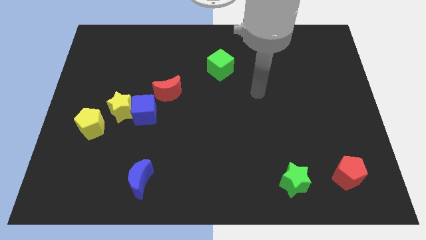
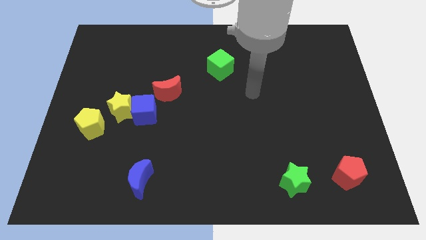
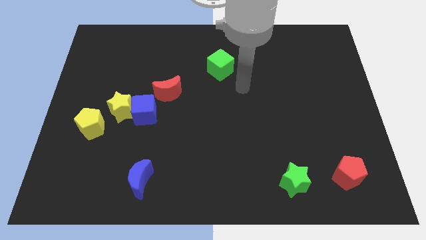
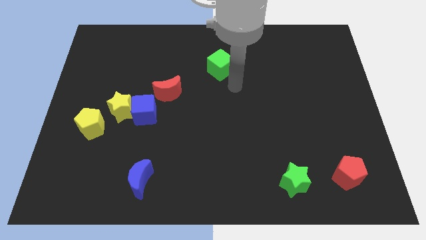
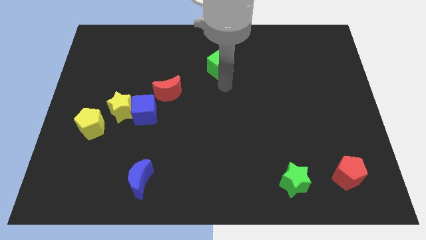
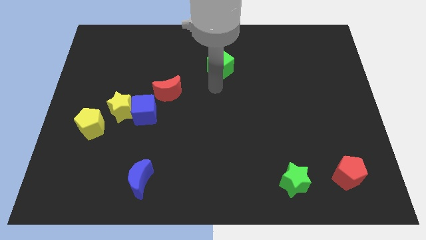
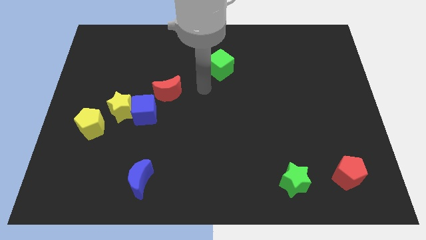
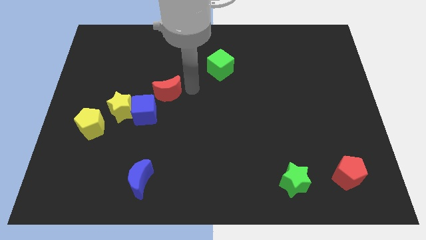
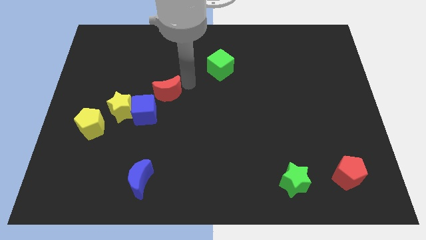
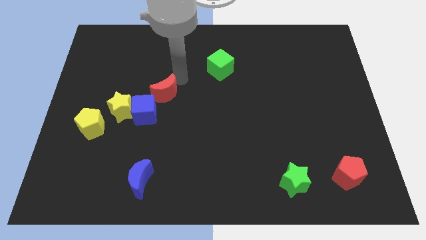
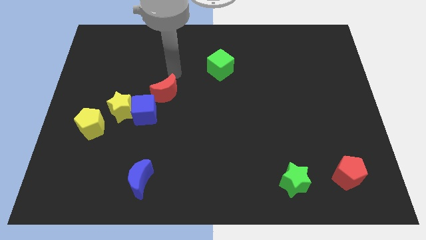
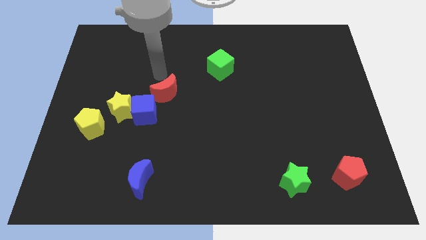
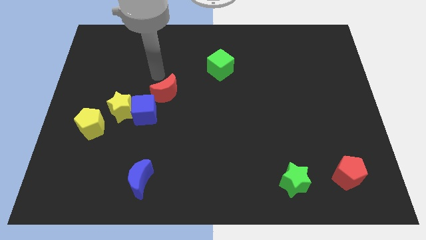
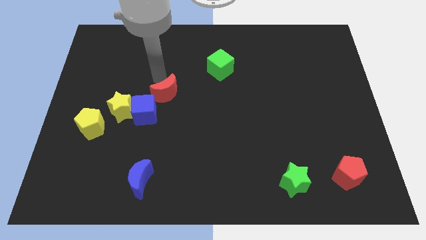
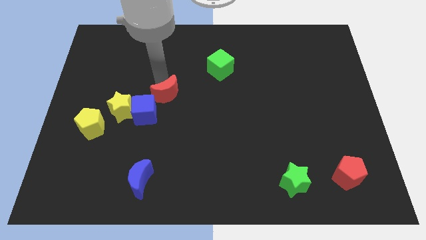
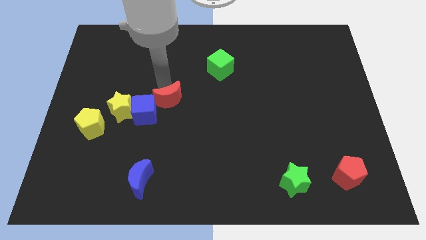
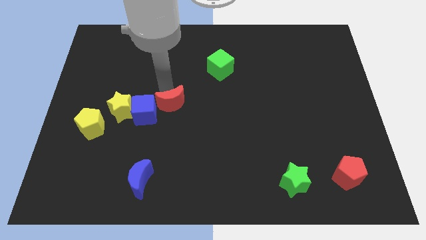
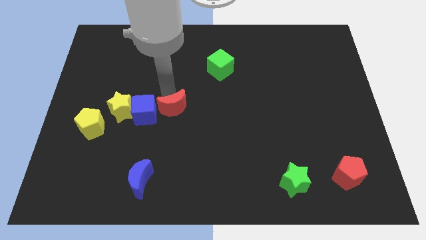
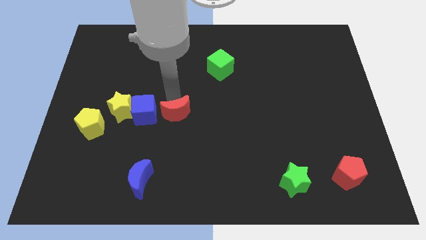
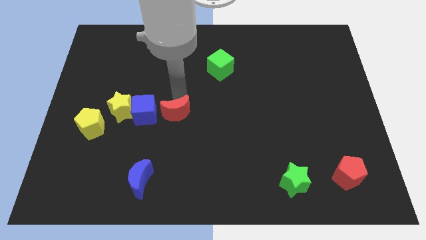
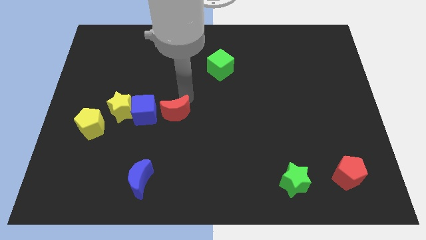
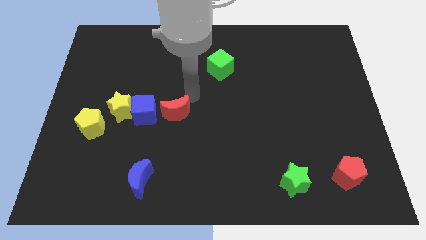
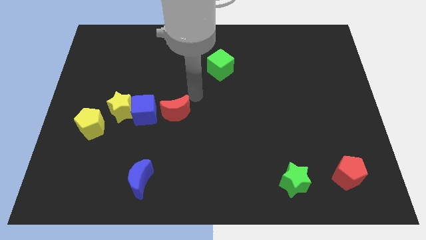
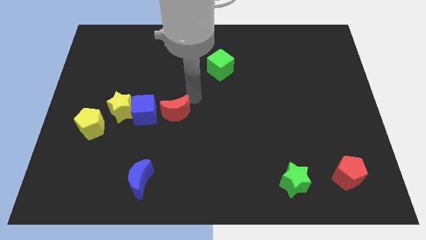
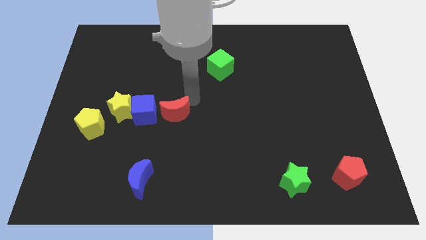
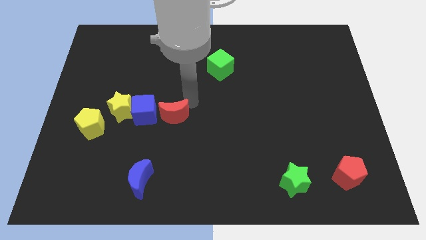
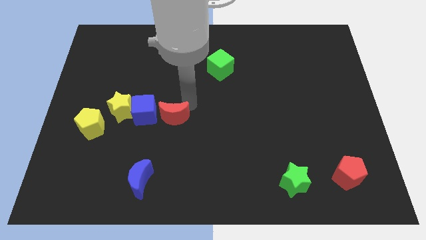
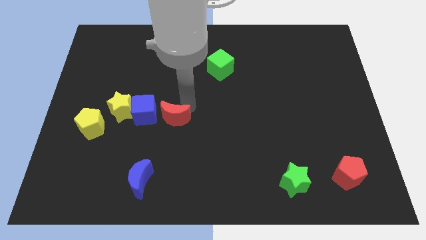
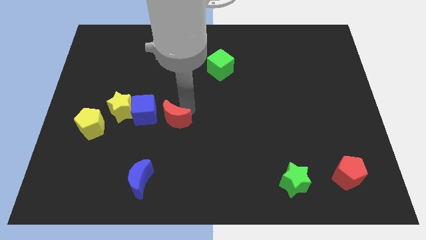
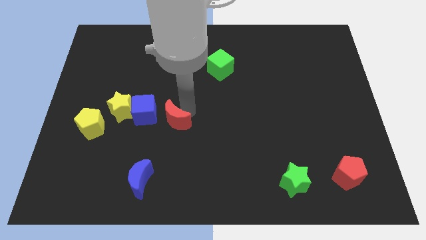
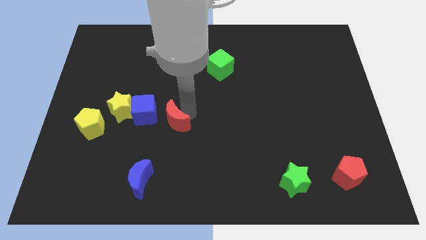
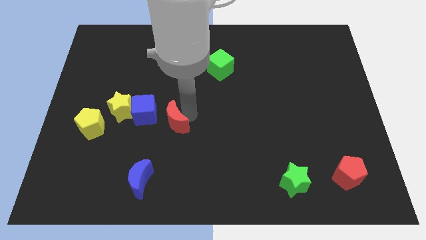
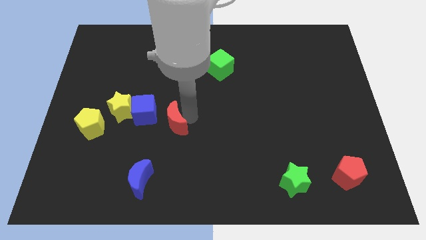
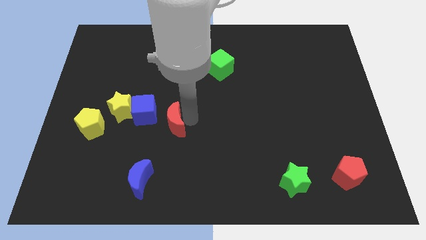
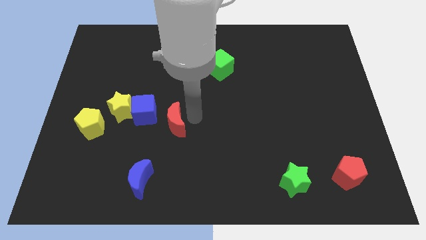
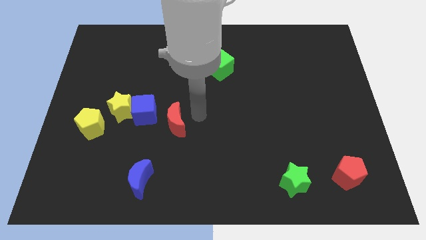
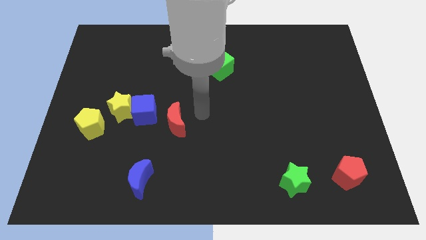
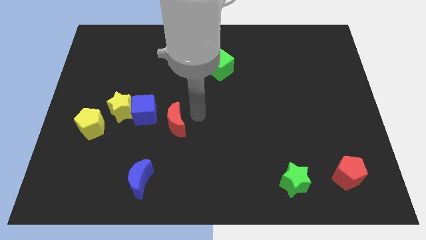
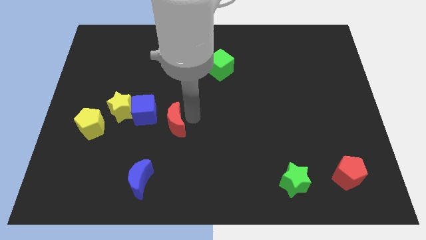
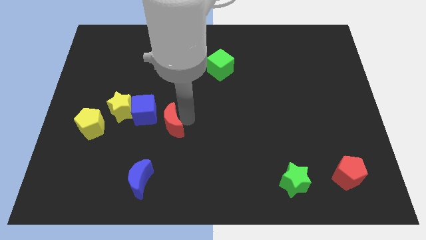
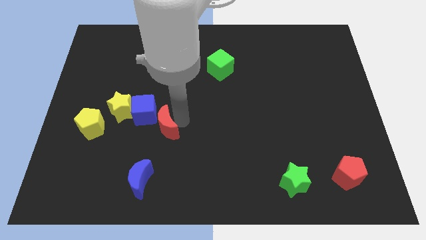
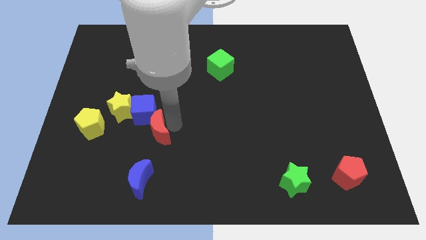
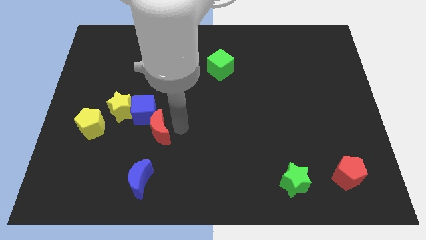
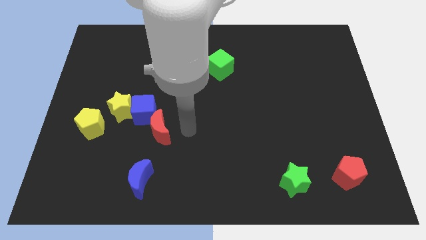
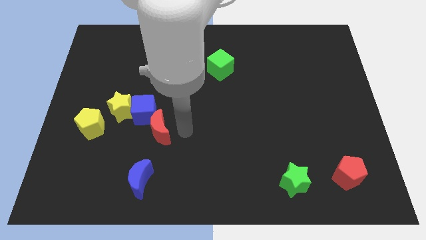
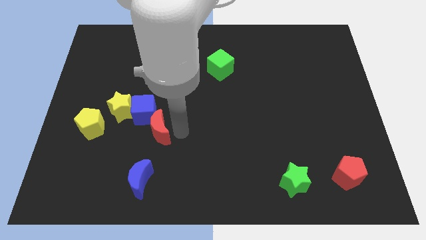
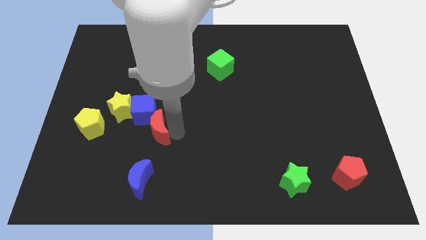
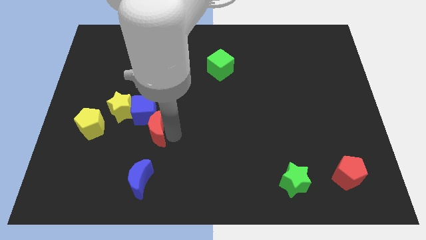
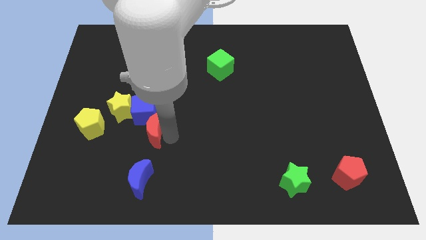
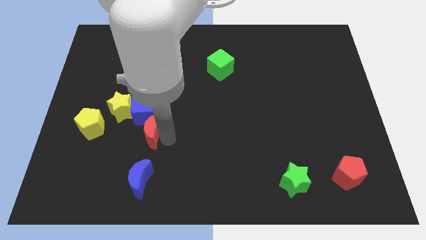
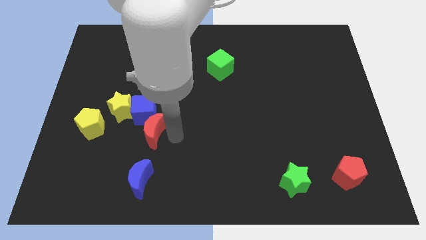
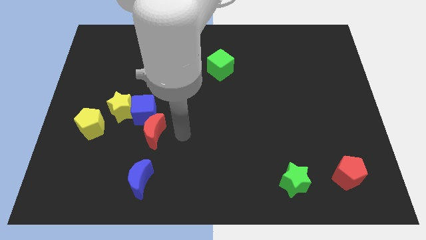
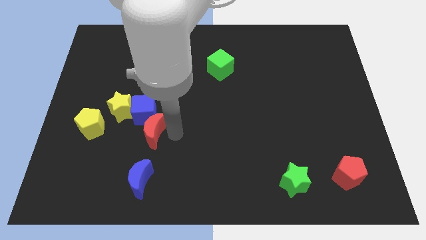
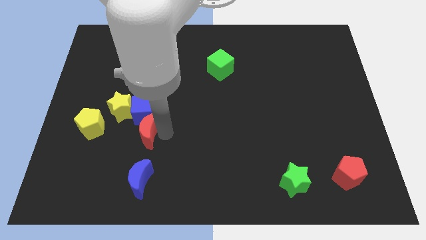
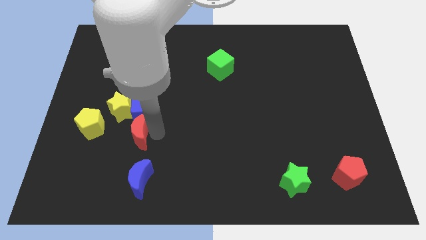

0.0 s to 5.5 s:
slide the red moon to the bottom left of the blue cube

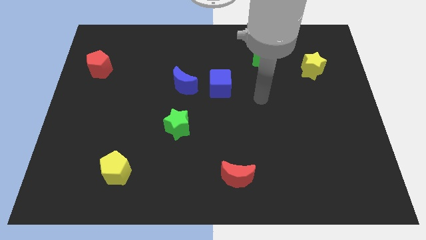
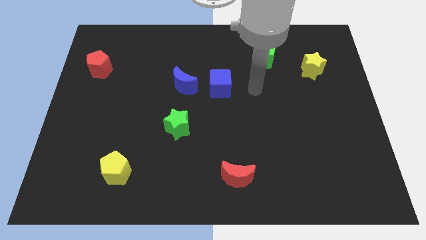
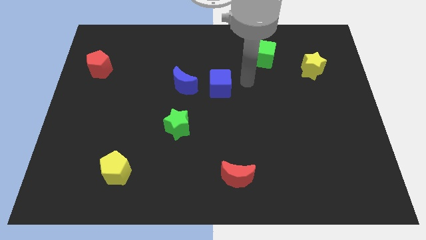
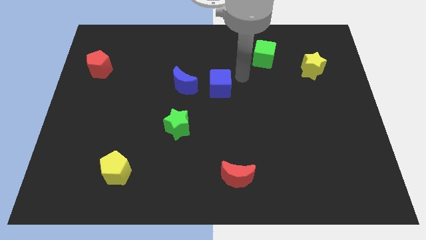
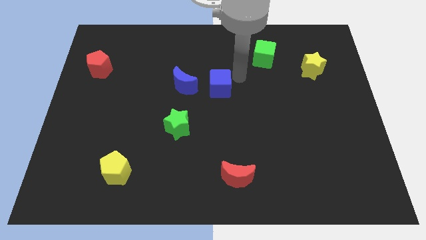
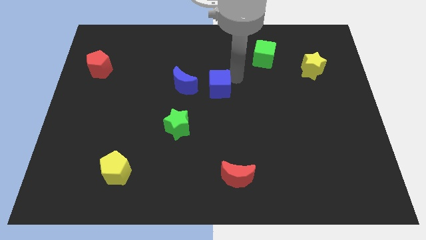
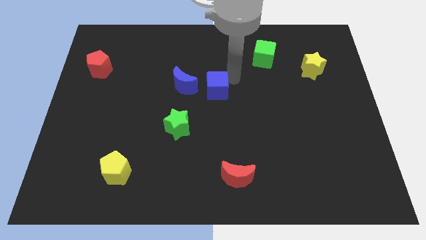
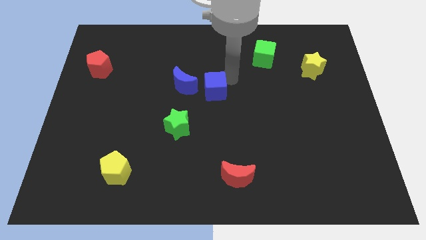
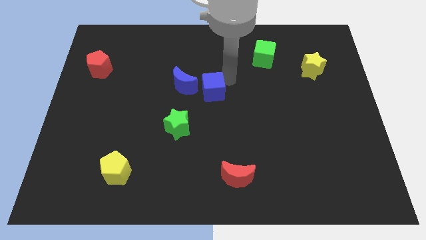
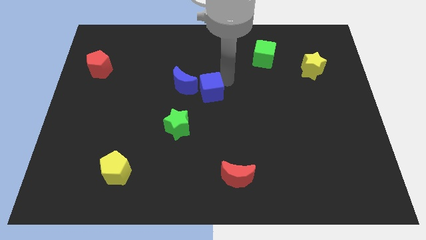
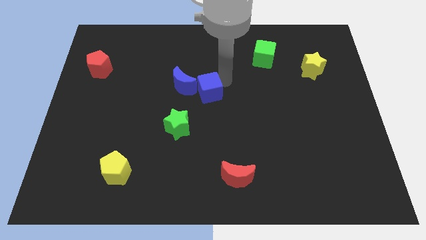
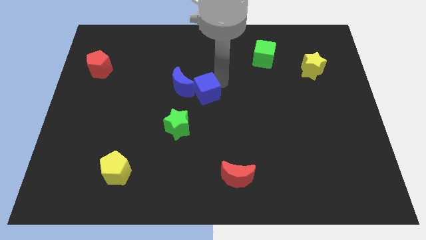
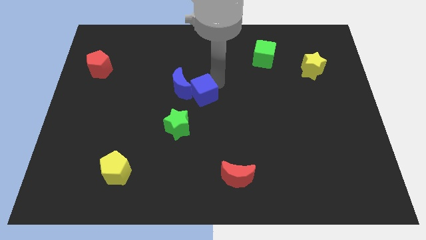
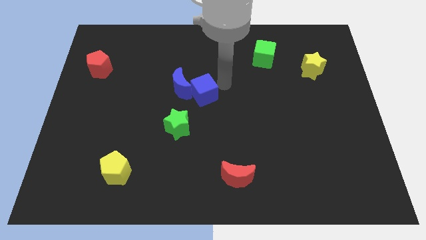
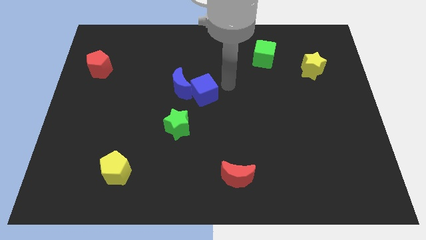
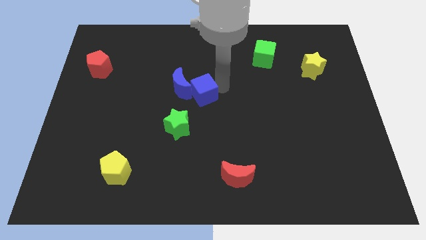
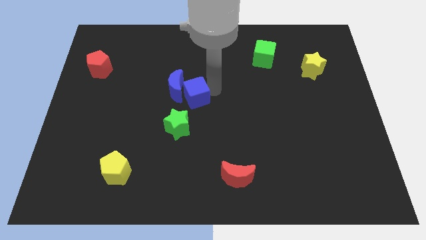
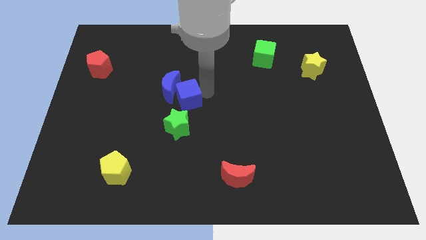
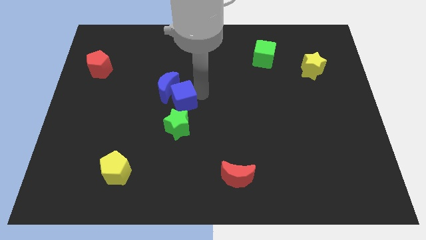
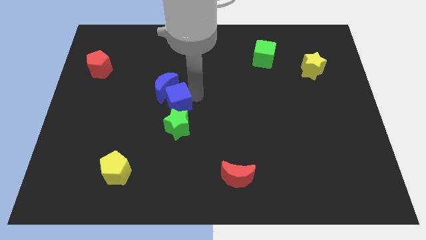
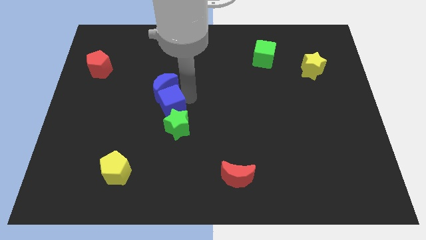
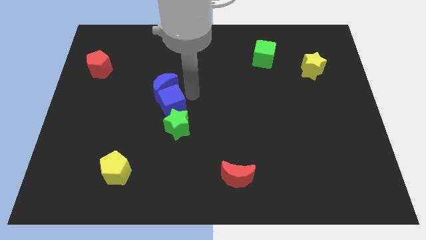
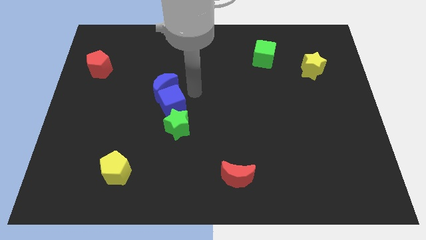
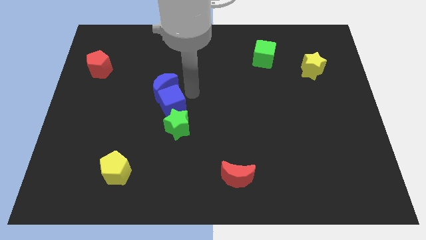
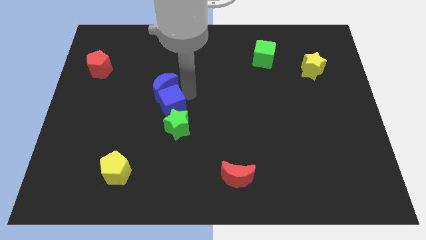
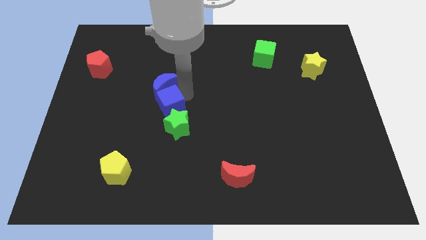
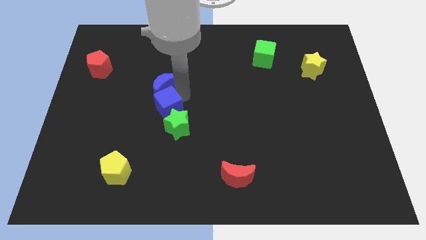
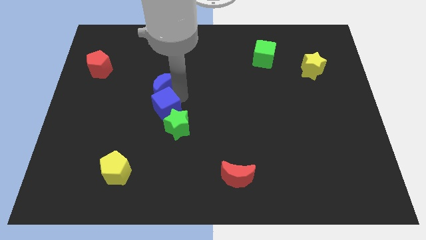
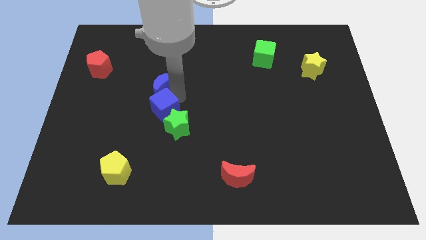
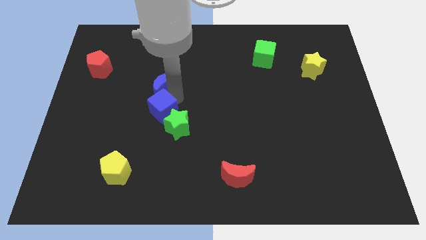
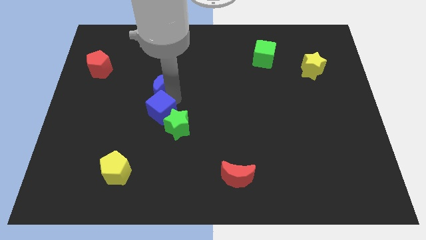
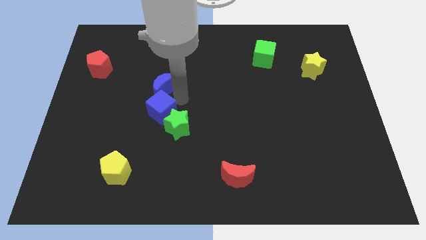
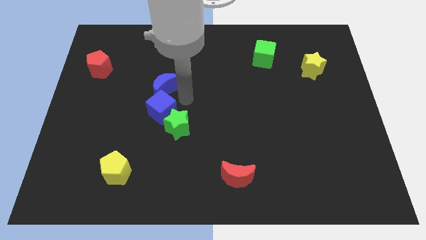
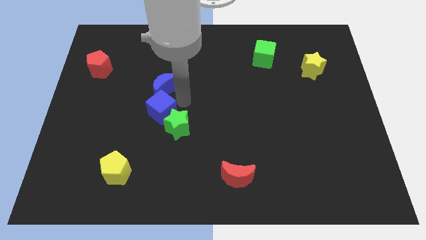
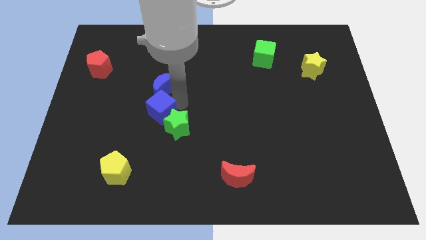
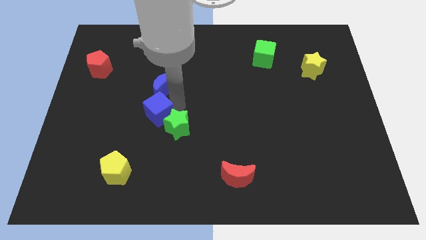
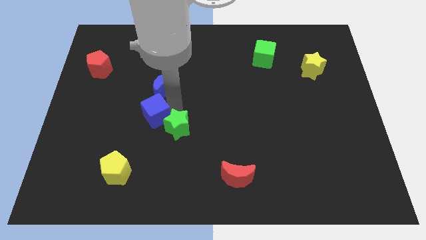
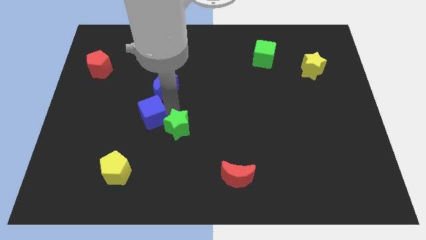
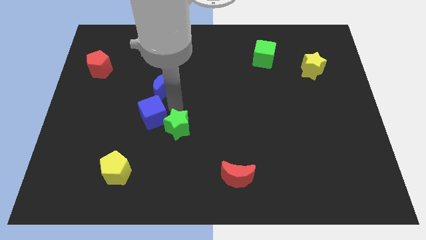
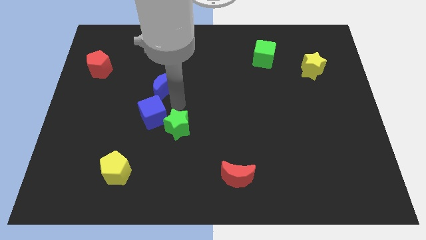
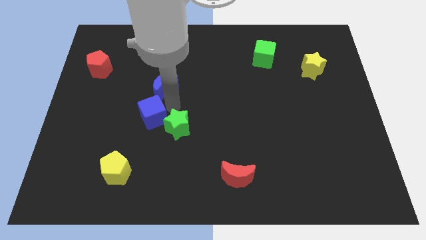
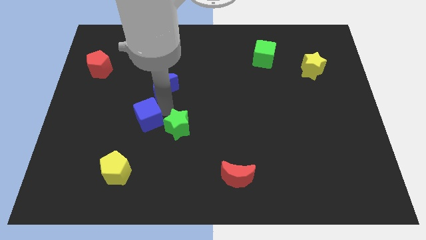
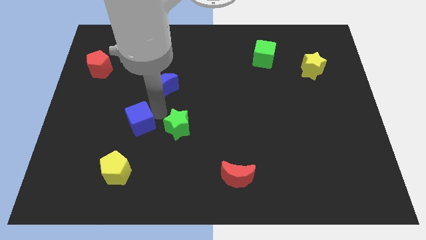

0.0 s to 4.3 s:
slide the blue cube above the yellow pentagon
